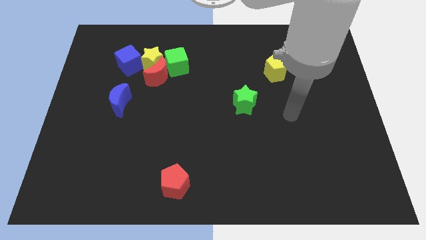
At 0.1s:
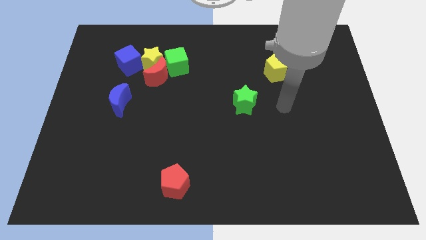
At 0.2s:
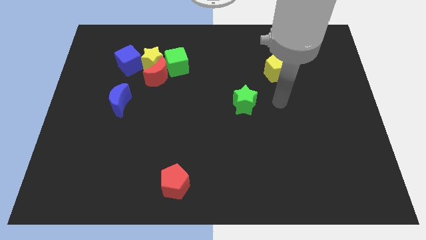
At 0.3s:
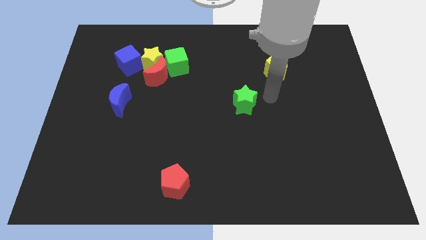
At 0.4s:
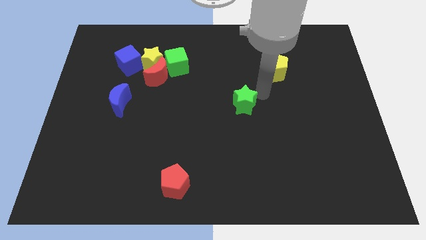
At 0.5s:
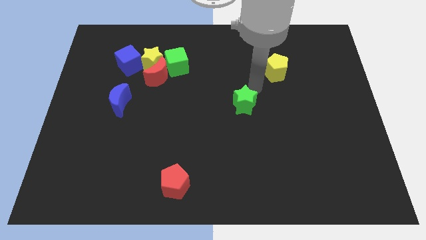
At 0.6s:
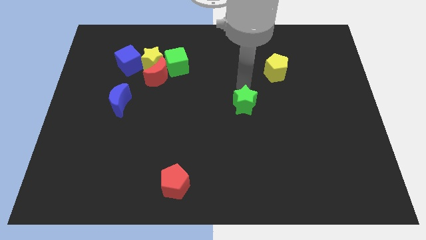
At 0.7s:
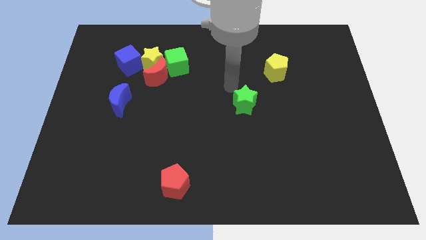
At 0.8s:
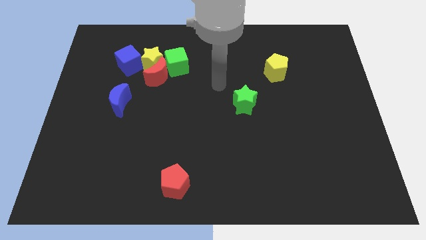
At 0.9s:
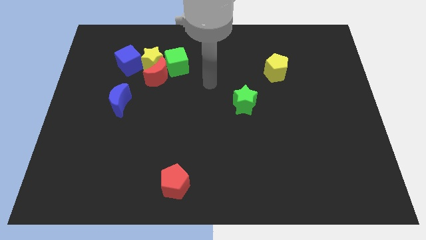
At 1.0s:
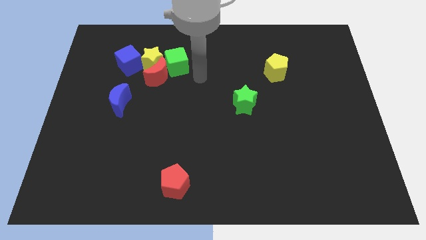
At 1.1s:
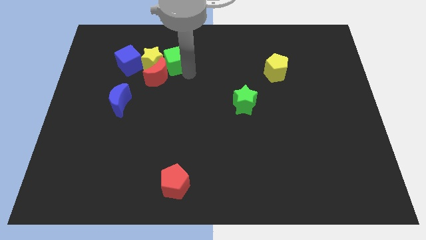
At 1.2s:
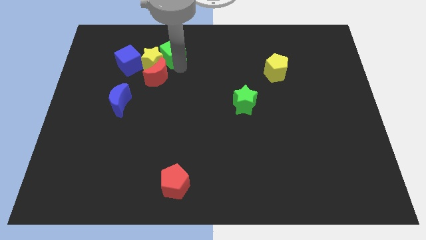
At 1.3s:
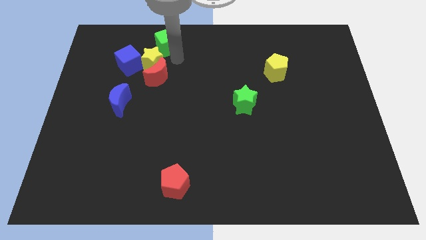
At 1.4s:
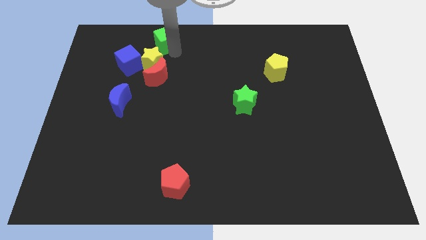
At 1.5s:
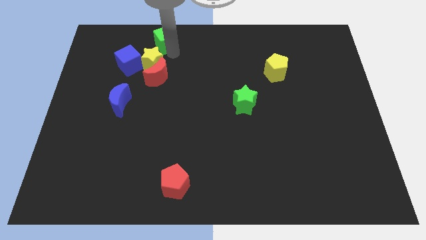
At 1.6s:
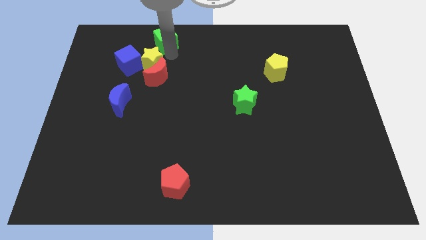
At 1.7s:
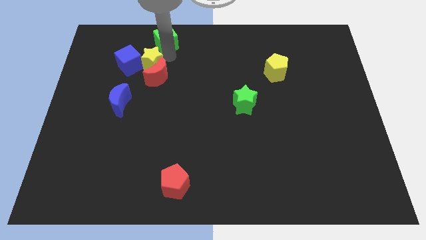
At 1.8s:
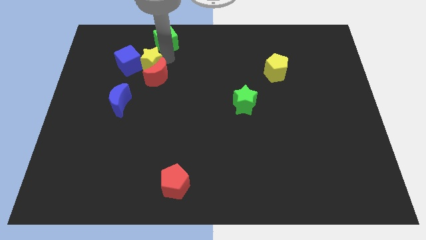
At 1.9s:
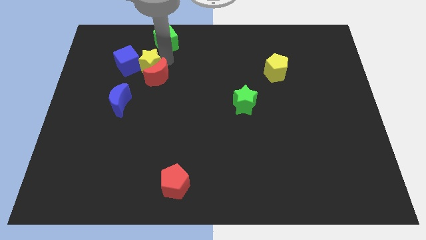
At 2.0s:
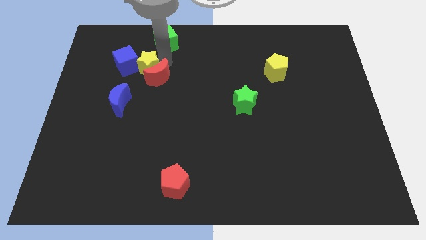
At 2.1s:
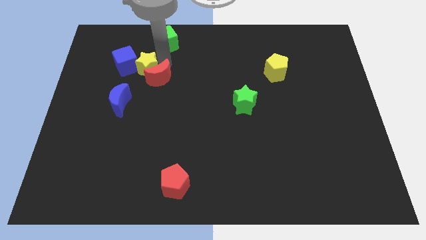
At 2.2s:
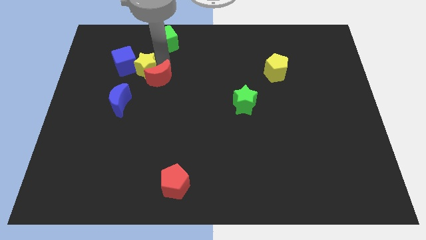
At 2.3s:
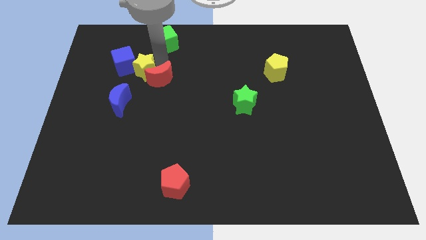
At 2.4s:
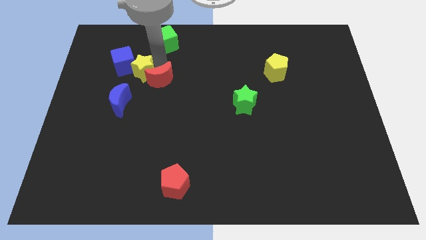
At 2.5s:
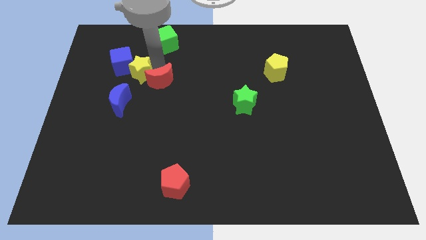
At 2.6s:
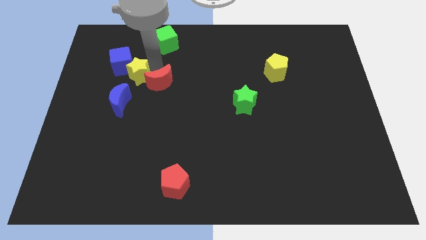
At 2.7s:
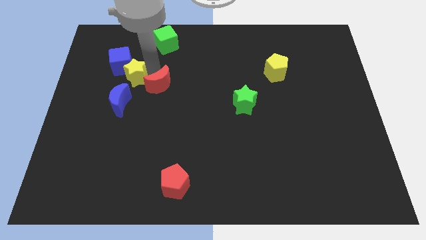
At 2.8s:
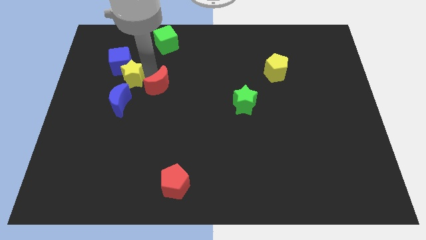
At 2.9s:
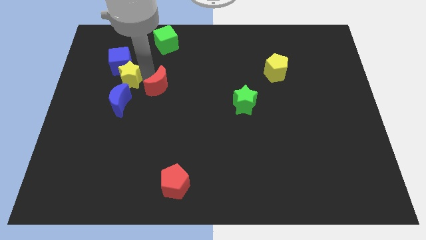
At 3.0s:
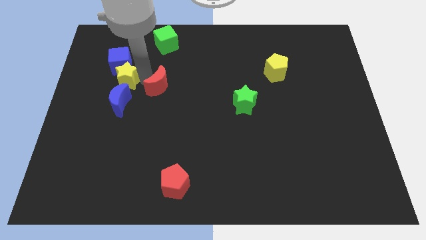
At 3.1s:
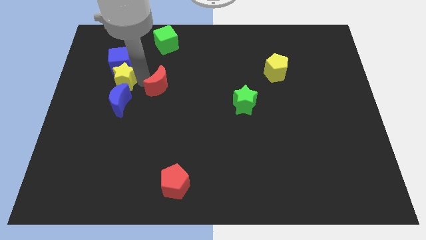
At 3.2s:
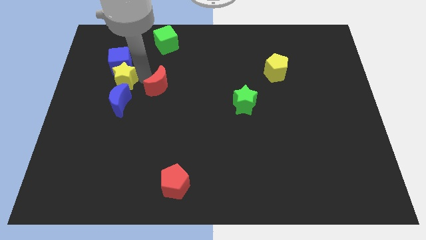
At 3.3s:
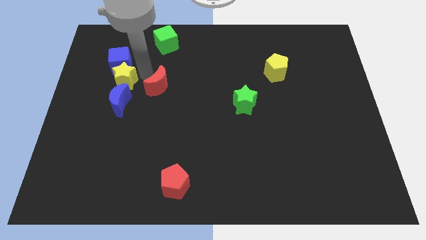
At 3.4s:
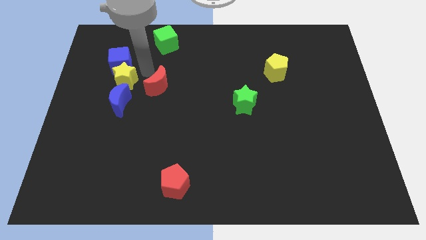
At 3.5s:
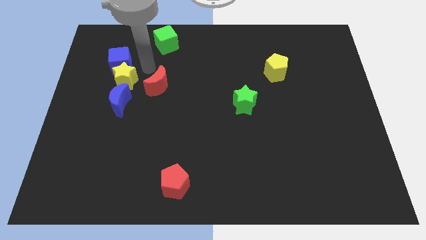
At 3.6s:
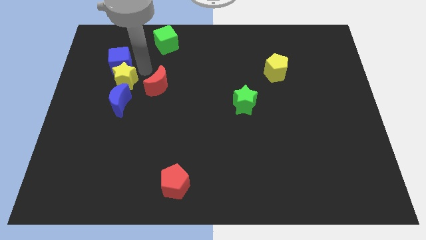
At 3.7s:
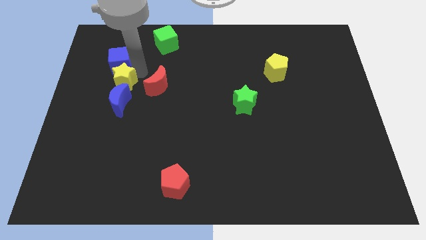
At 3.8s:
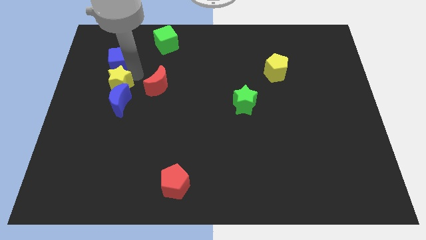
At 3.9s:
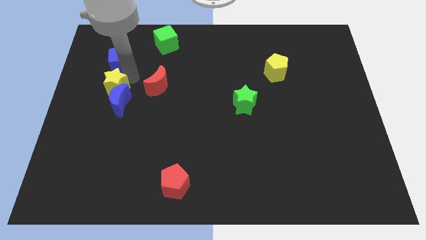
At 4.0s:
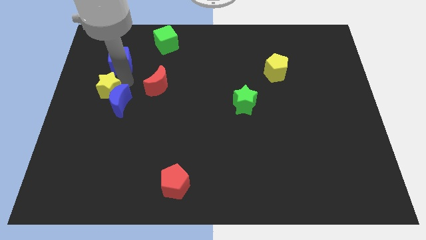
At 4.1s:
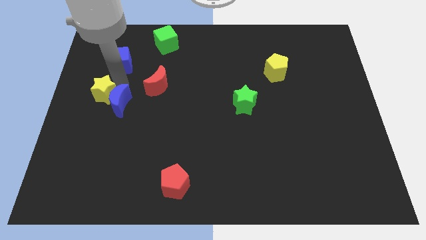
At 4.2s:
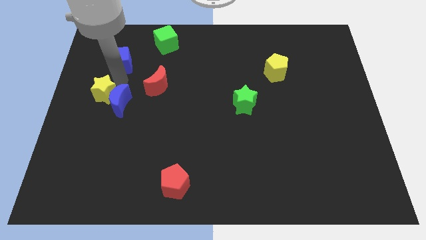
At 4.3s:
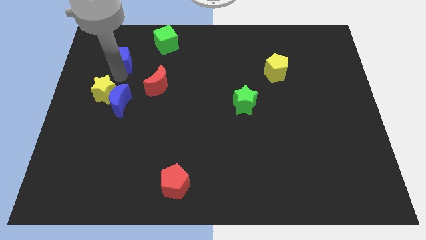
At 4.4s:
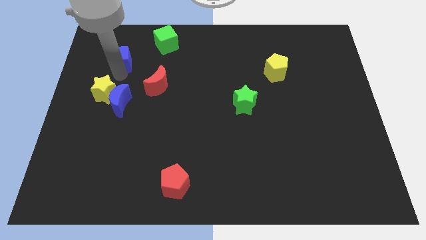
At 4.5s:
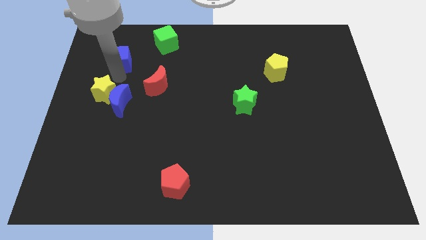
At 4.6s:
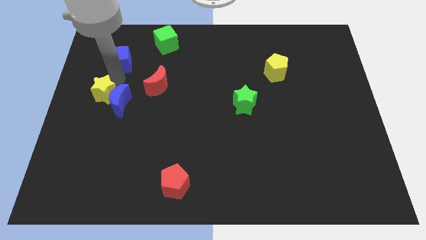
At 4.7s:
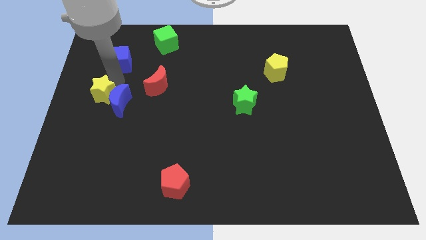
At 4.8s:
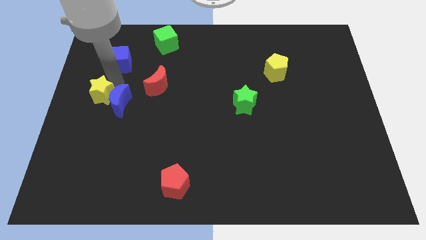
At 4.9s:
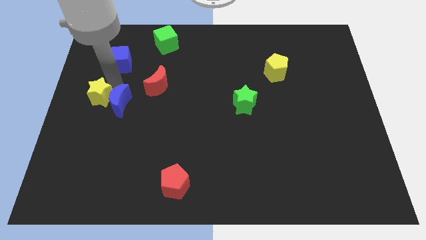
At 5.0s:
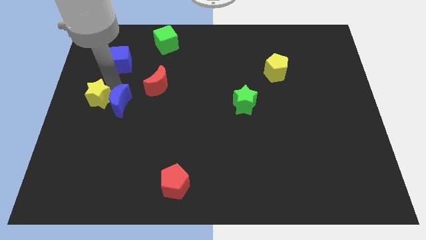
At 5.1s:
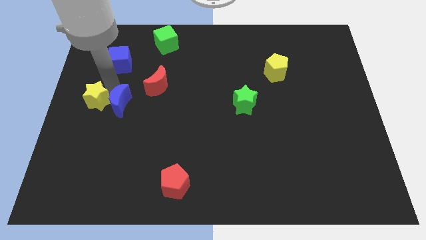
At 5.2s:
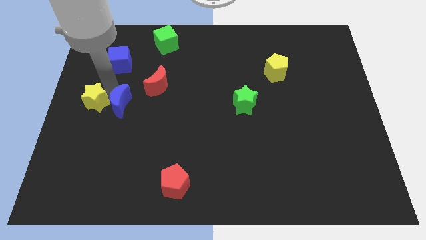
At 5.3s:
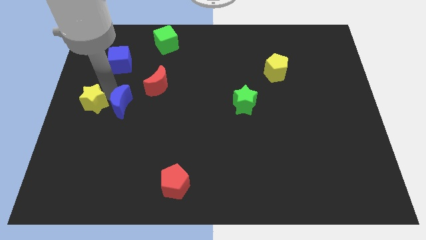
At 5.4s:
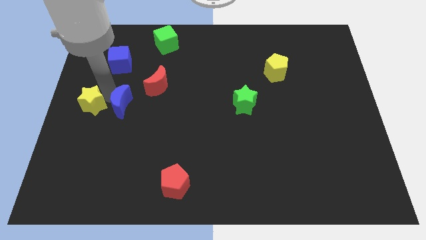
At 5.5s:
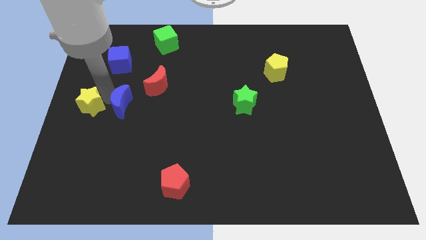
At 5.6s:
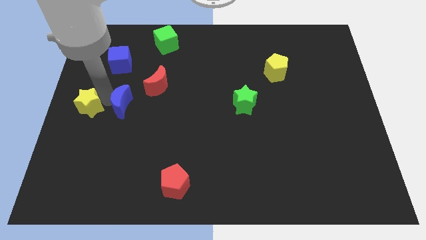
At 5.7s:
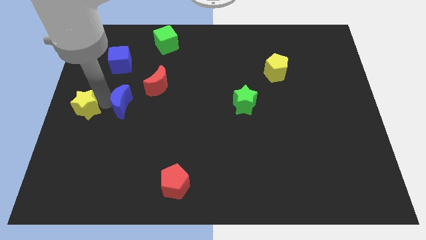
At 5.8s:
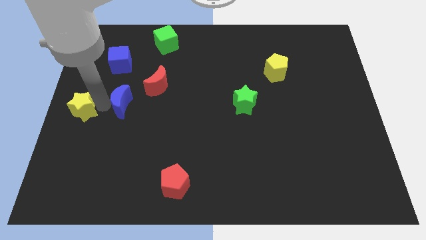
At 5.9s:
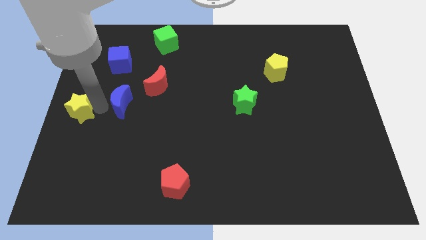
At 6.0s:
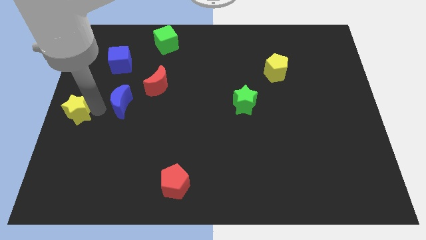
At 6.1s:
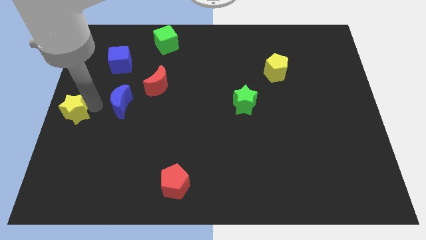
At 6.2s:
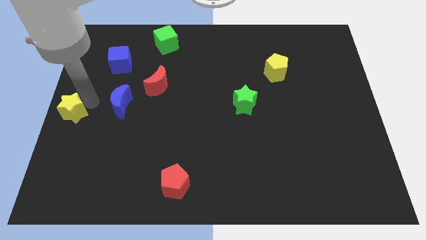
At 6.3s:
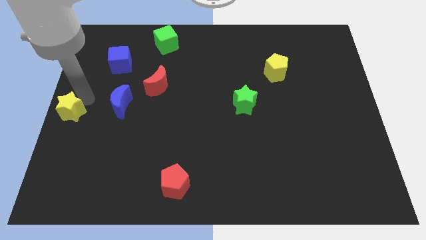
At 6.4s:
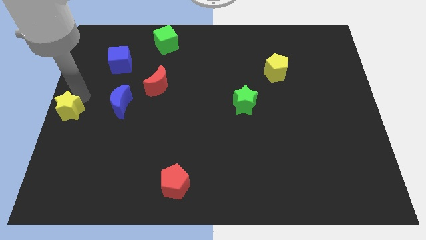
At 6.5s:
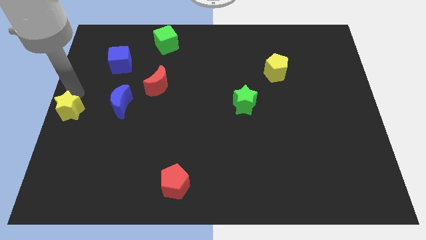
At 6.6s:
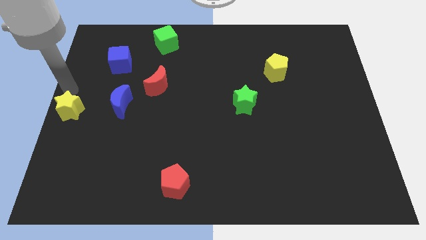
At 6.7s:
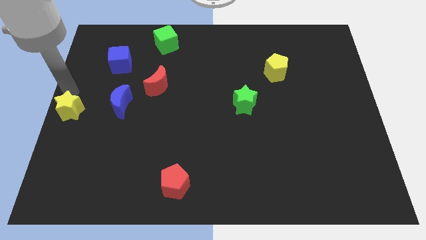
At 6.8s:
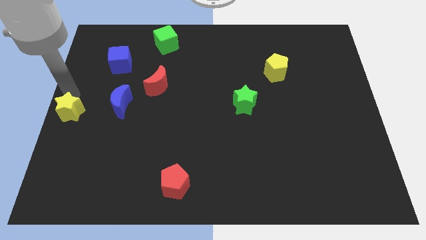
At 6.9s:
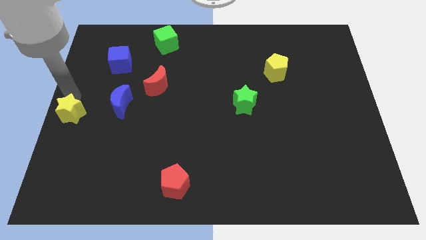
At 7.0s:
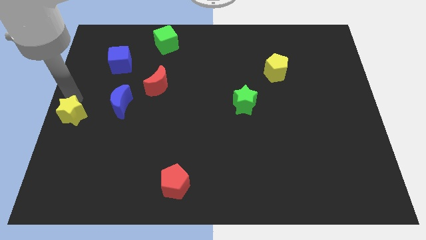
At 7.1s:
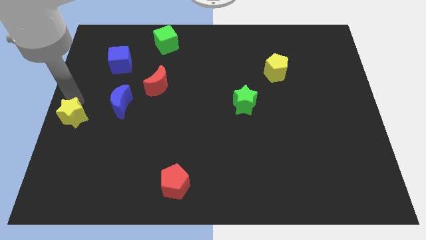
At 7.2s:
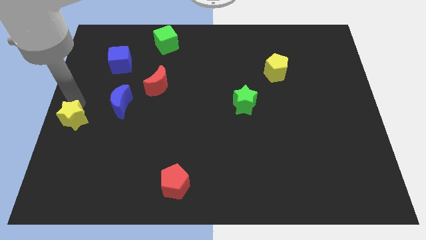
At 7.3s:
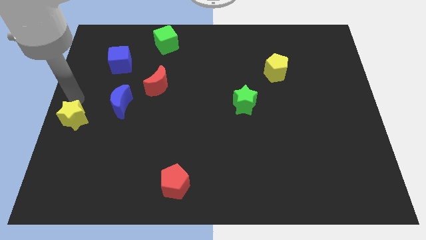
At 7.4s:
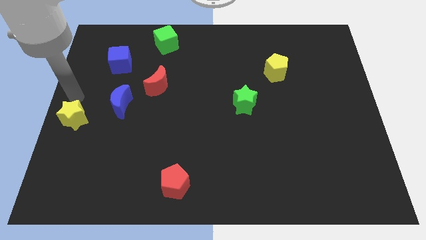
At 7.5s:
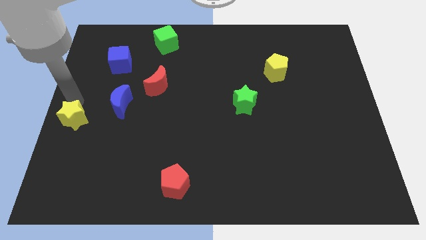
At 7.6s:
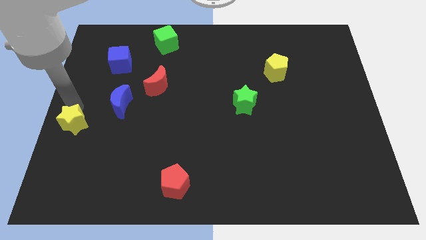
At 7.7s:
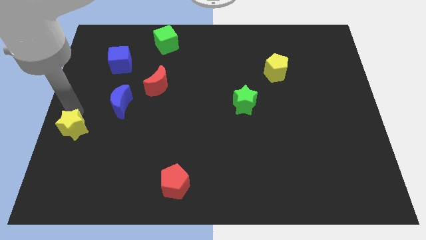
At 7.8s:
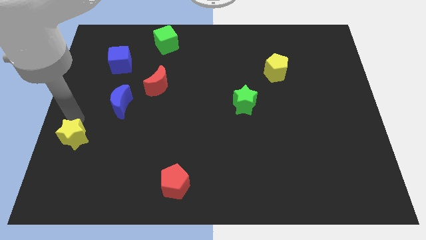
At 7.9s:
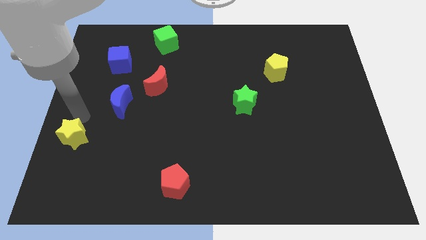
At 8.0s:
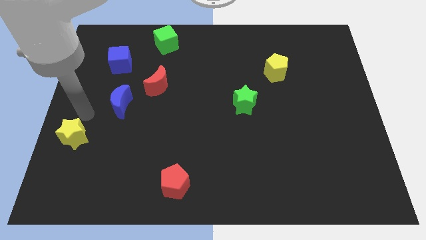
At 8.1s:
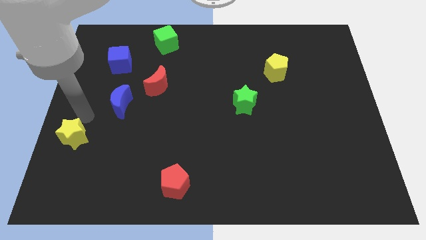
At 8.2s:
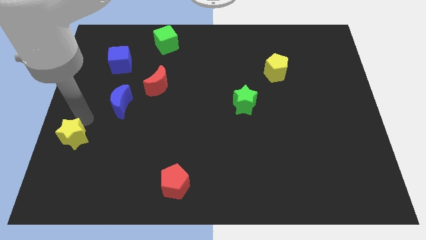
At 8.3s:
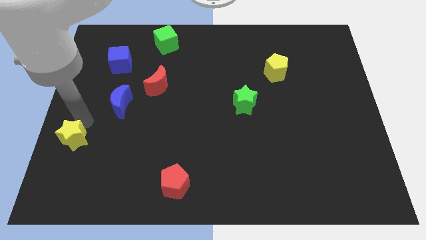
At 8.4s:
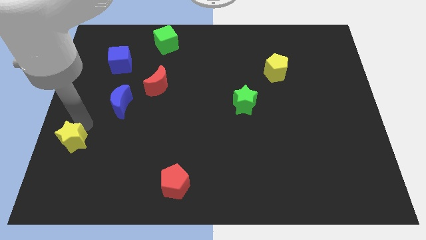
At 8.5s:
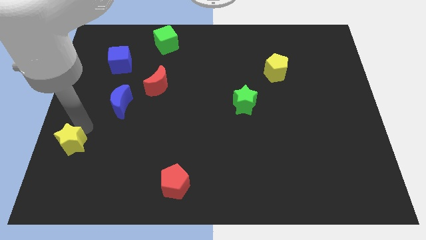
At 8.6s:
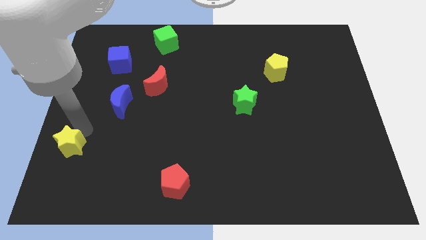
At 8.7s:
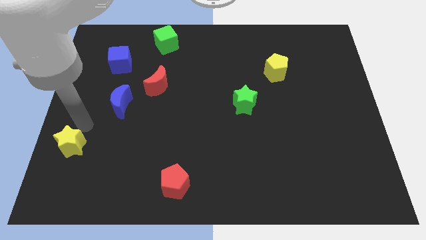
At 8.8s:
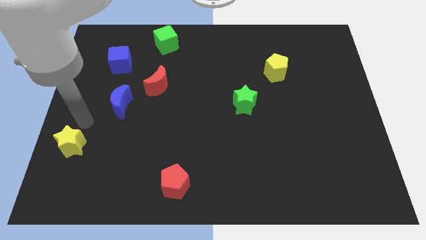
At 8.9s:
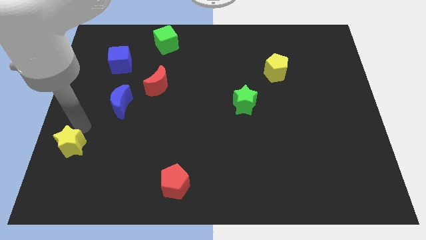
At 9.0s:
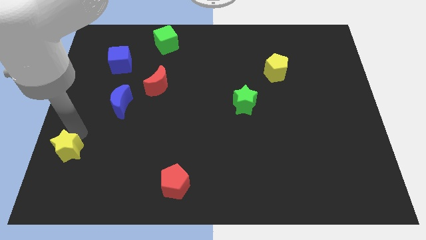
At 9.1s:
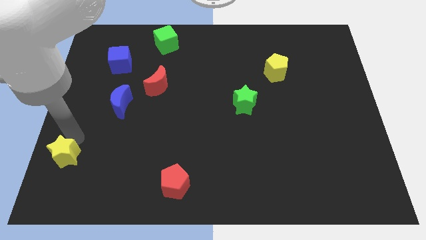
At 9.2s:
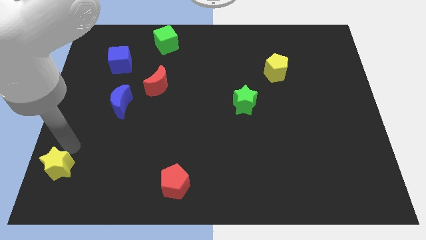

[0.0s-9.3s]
put the yellow star to the bottom left
